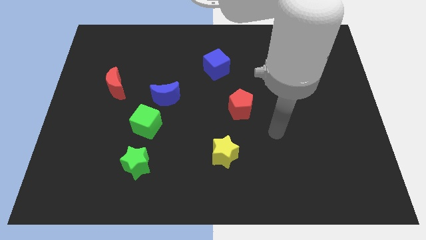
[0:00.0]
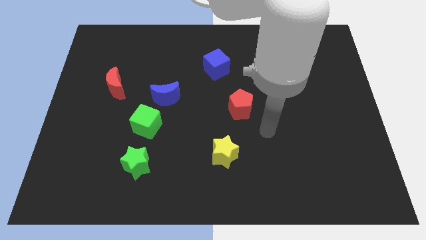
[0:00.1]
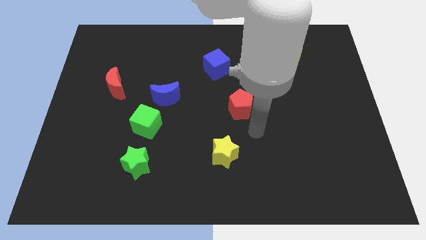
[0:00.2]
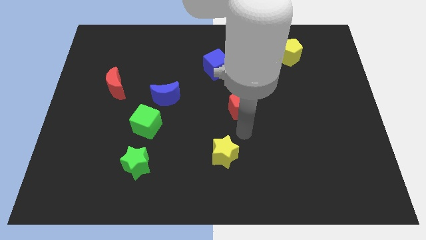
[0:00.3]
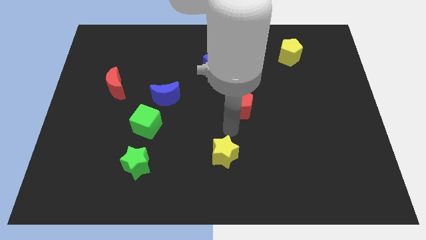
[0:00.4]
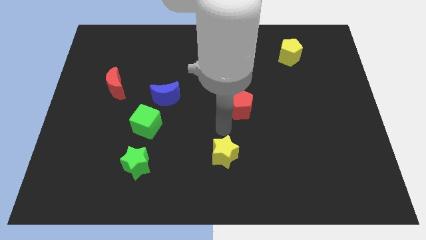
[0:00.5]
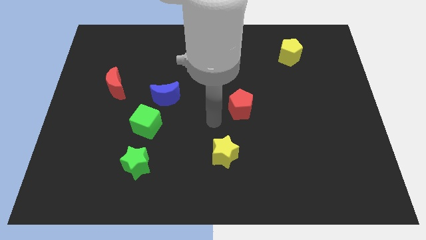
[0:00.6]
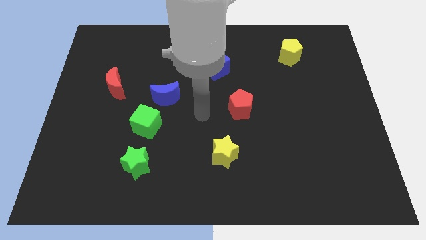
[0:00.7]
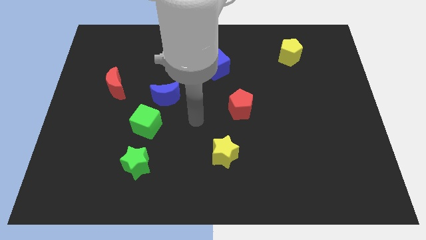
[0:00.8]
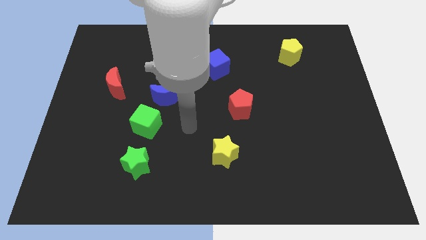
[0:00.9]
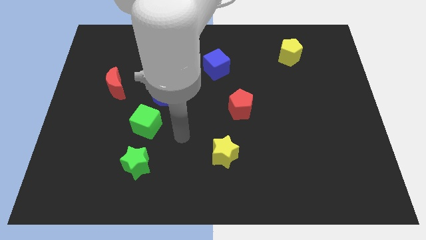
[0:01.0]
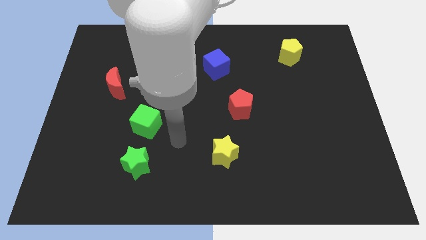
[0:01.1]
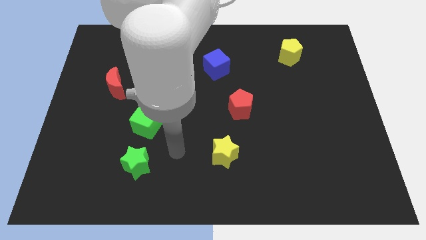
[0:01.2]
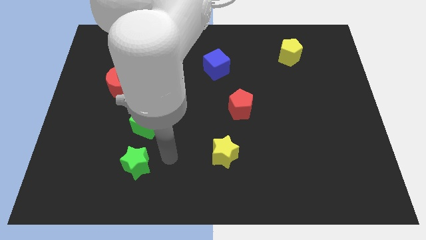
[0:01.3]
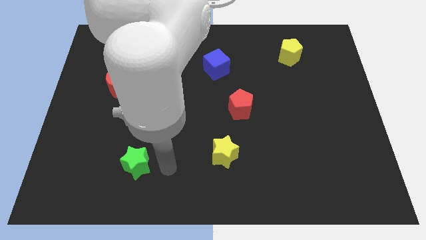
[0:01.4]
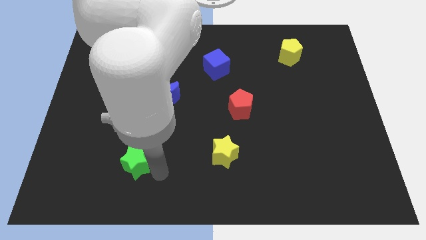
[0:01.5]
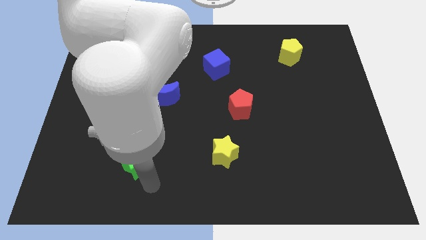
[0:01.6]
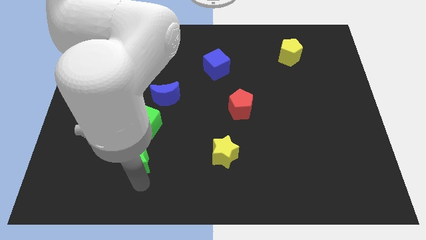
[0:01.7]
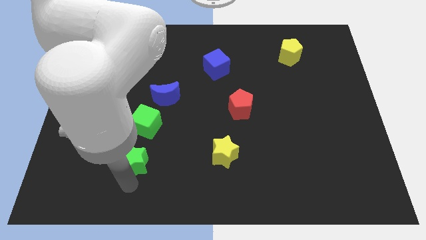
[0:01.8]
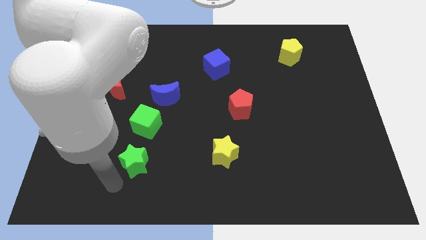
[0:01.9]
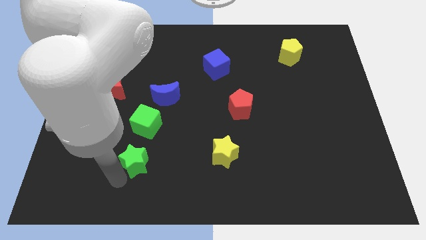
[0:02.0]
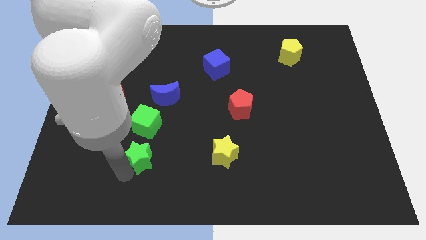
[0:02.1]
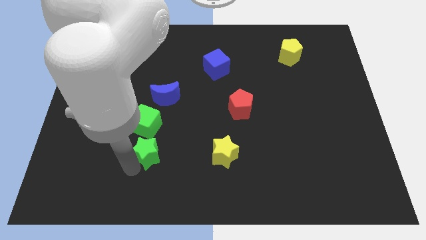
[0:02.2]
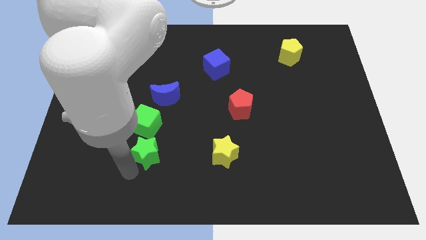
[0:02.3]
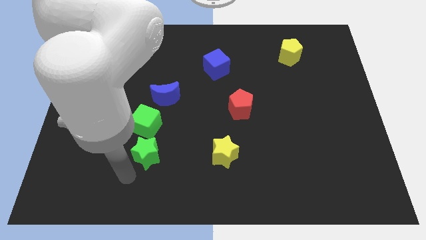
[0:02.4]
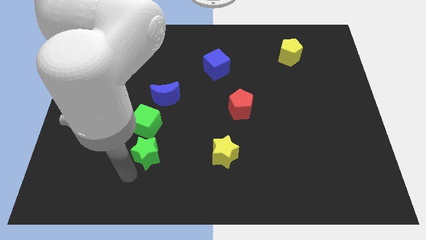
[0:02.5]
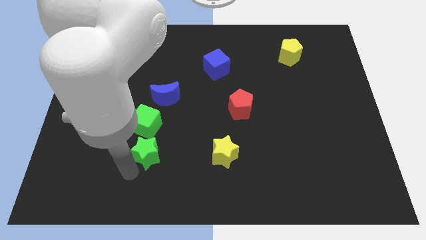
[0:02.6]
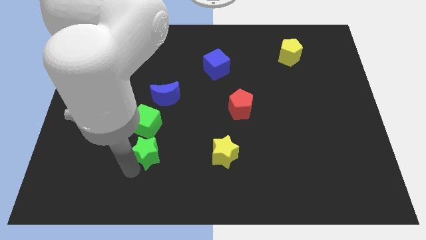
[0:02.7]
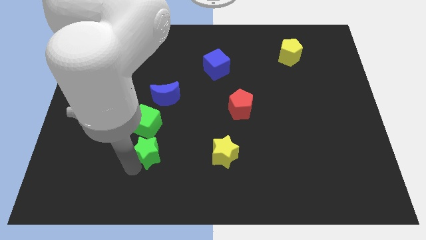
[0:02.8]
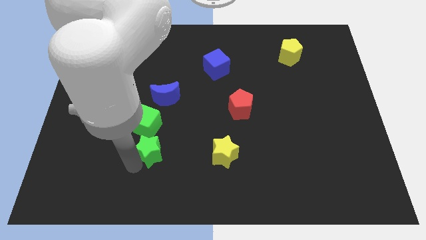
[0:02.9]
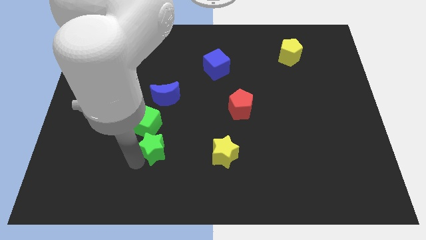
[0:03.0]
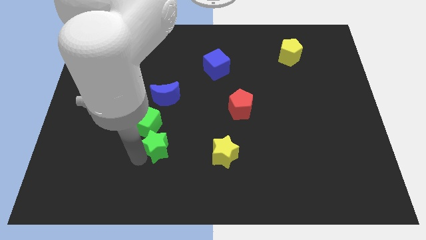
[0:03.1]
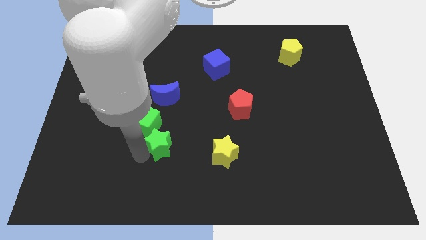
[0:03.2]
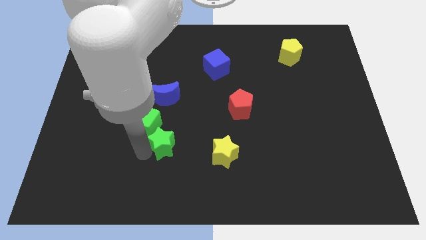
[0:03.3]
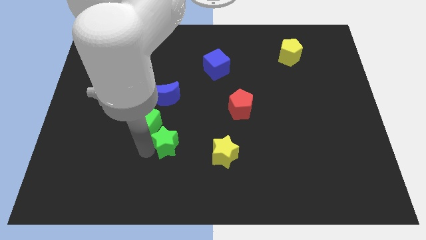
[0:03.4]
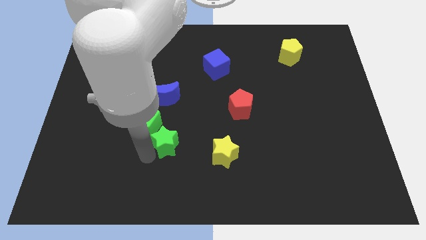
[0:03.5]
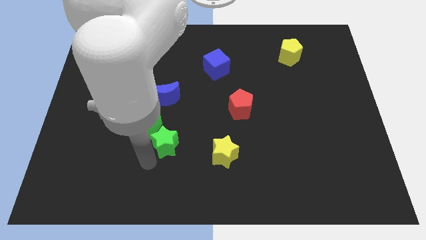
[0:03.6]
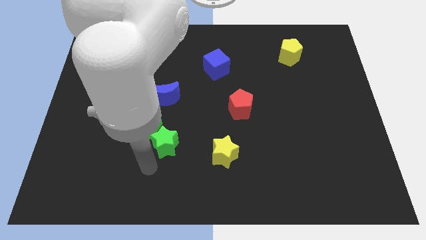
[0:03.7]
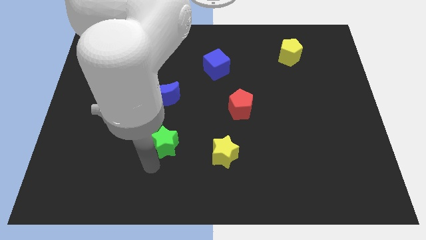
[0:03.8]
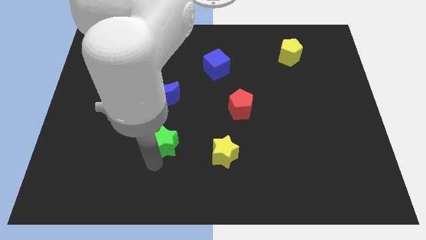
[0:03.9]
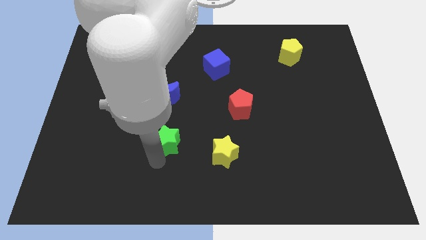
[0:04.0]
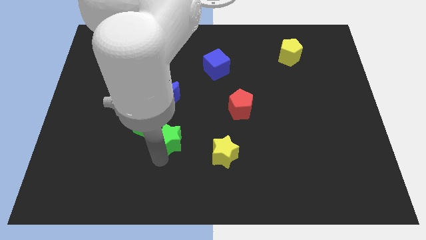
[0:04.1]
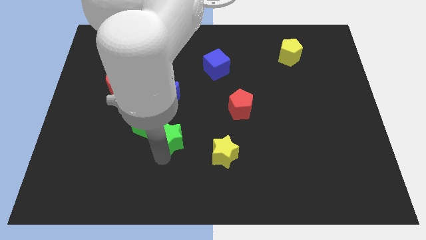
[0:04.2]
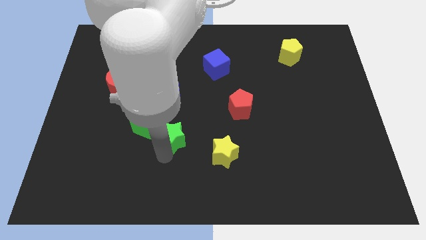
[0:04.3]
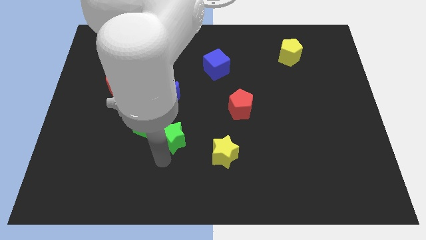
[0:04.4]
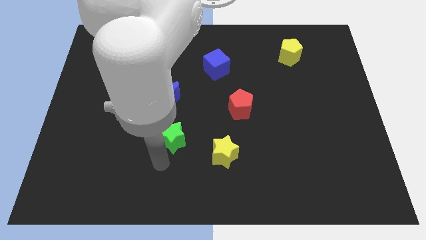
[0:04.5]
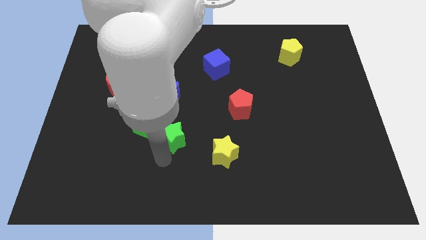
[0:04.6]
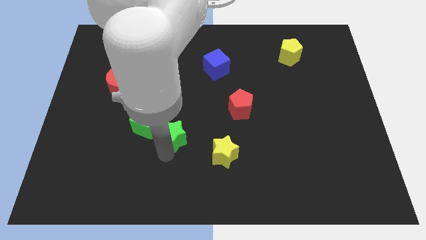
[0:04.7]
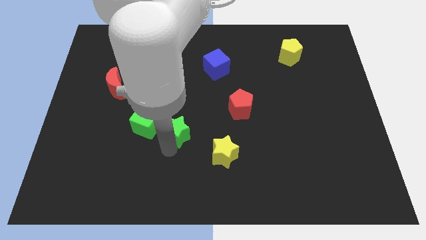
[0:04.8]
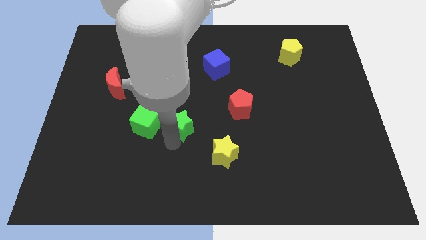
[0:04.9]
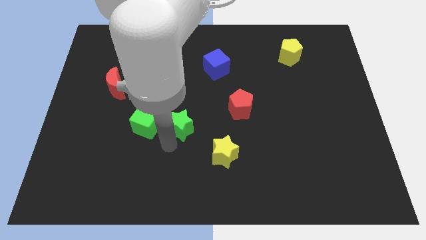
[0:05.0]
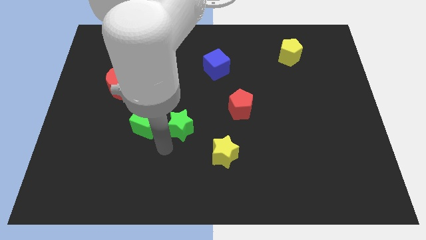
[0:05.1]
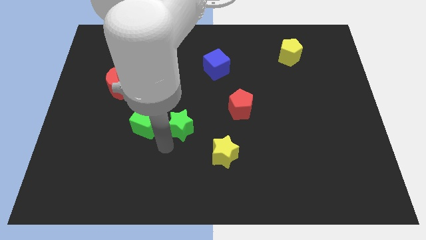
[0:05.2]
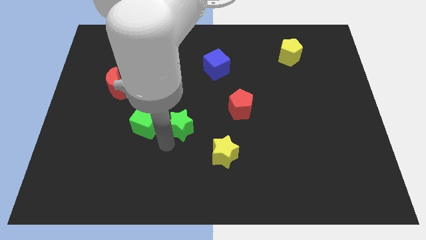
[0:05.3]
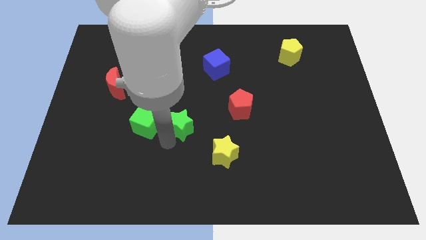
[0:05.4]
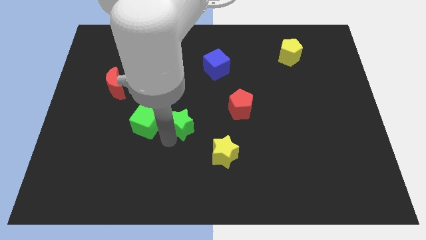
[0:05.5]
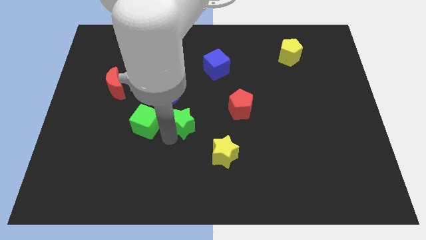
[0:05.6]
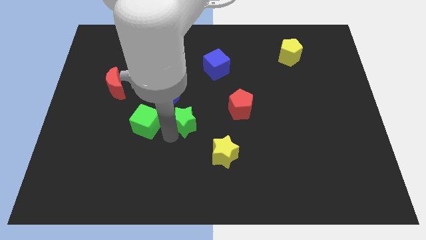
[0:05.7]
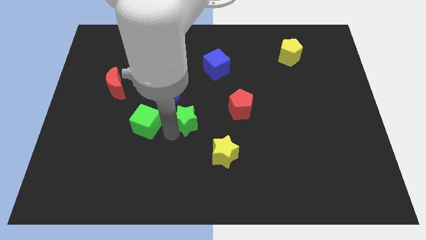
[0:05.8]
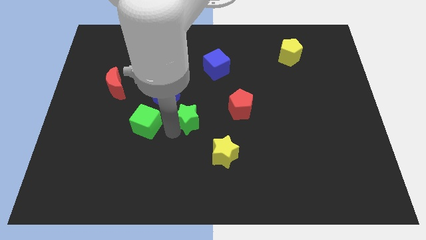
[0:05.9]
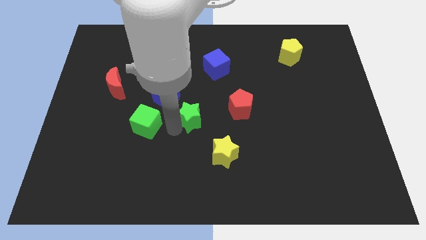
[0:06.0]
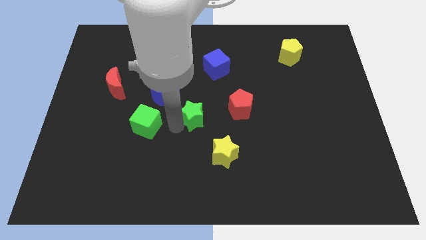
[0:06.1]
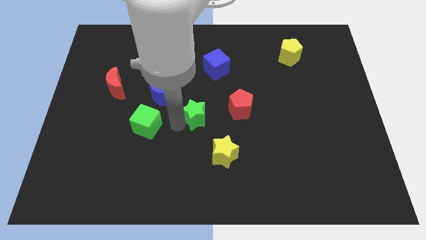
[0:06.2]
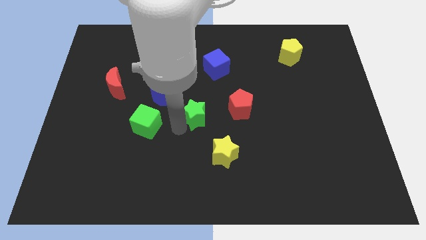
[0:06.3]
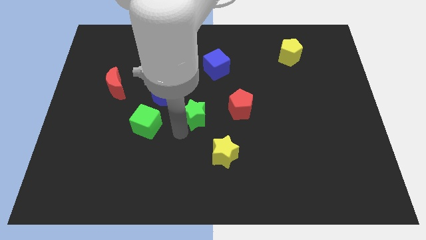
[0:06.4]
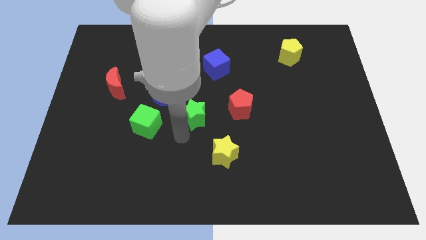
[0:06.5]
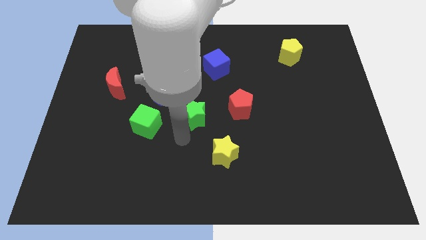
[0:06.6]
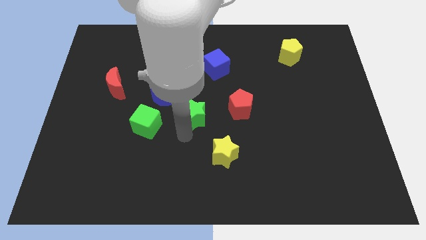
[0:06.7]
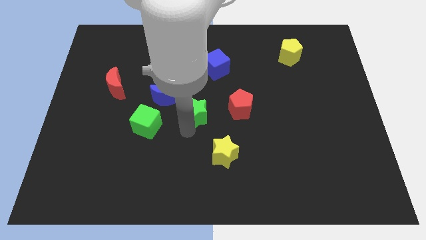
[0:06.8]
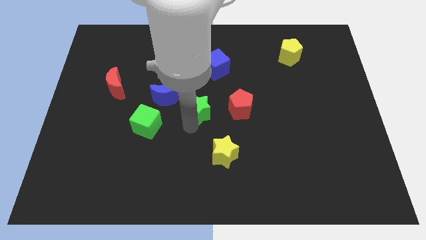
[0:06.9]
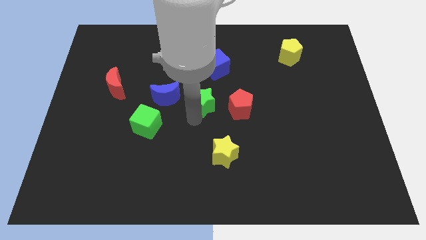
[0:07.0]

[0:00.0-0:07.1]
push the green star up and right diagonally

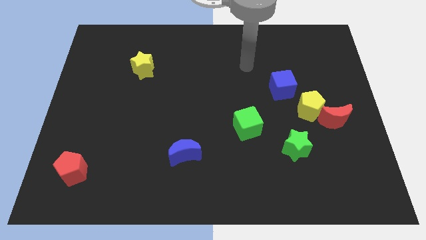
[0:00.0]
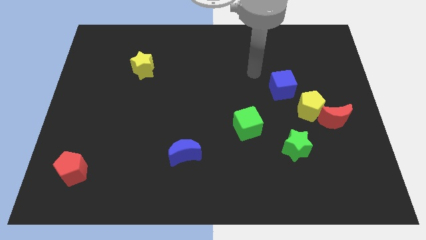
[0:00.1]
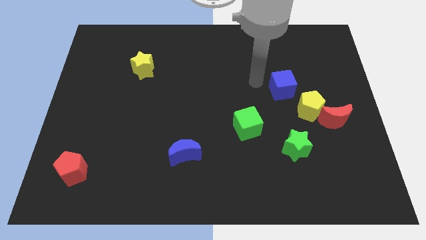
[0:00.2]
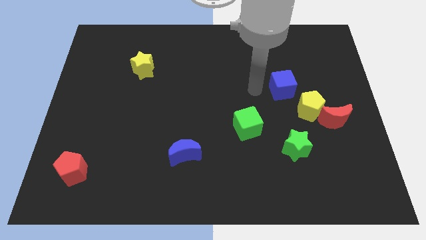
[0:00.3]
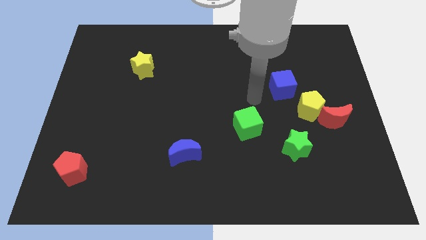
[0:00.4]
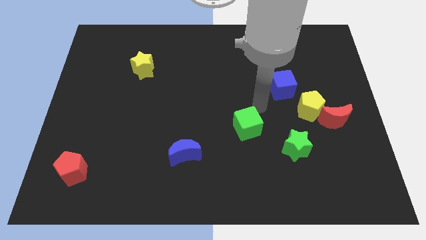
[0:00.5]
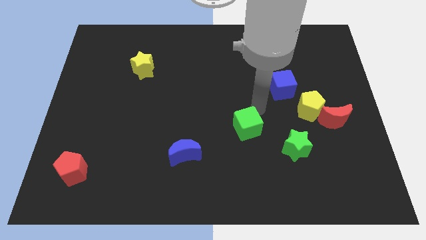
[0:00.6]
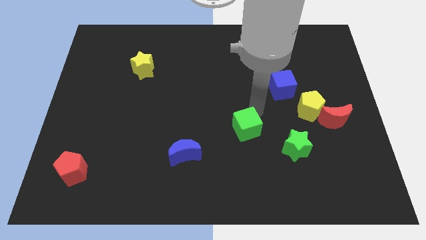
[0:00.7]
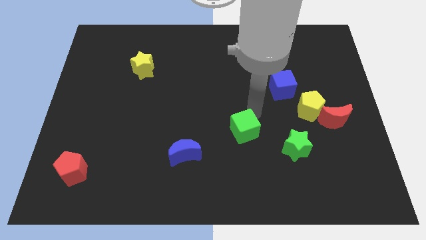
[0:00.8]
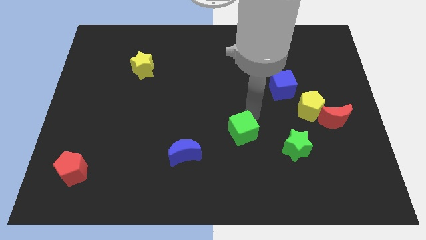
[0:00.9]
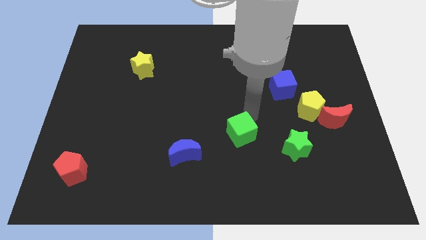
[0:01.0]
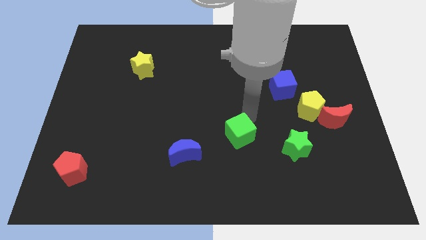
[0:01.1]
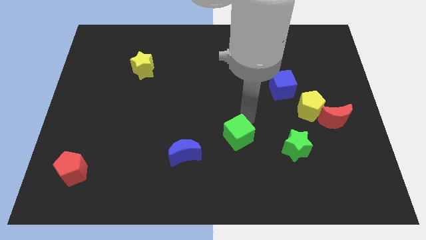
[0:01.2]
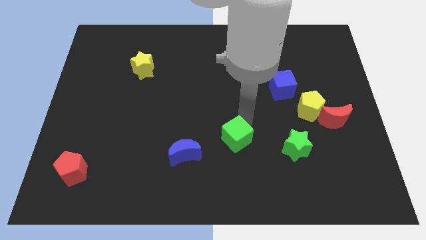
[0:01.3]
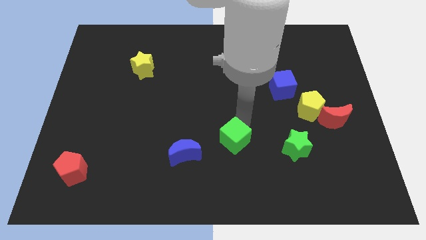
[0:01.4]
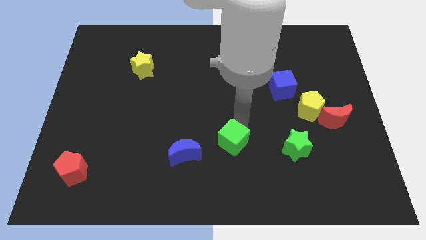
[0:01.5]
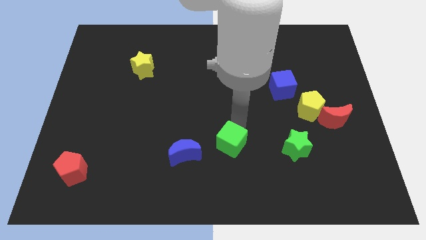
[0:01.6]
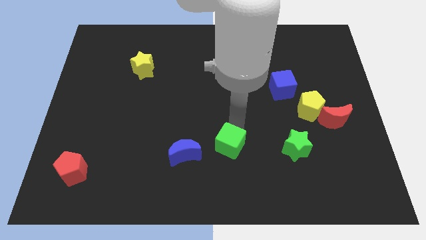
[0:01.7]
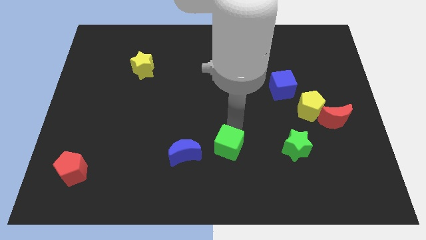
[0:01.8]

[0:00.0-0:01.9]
slide the green cube somewhat diagonally down and to the left
